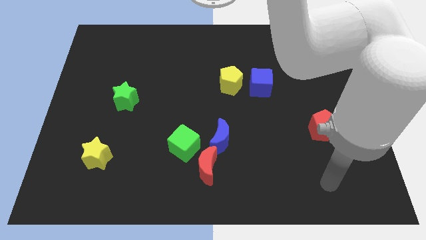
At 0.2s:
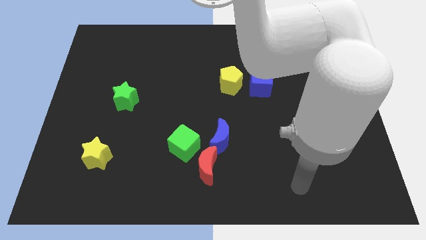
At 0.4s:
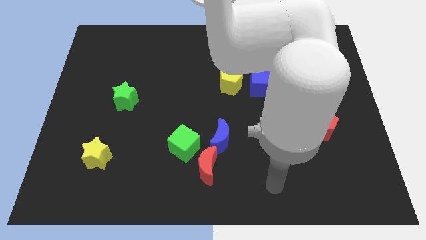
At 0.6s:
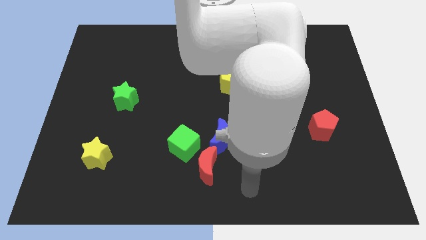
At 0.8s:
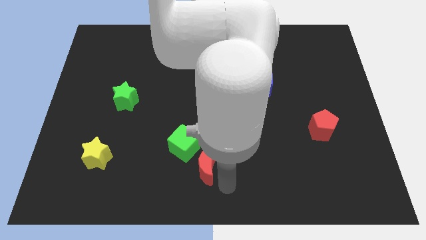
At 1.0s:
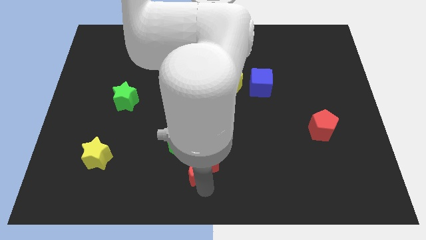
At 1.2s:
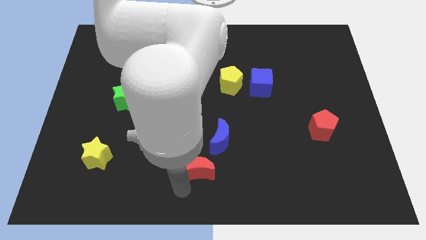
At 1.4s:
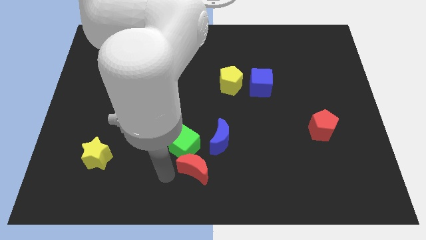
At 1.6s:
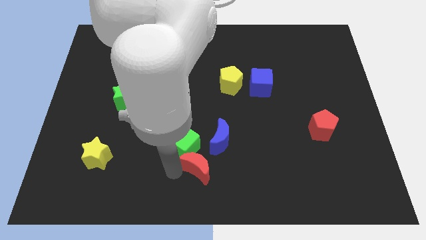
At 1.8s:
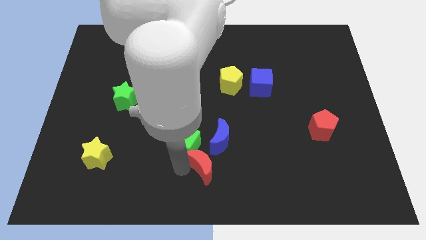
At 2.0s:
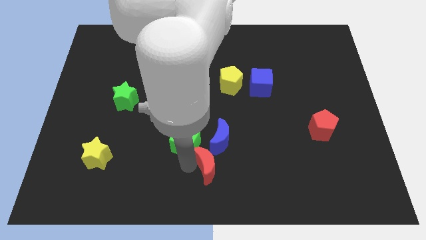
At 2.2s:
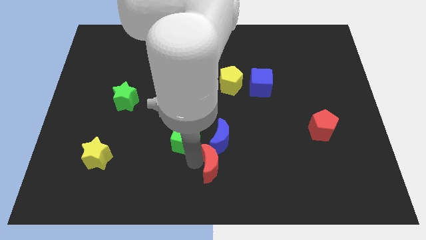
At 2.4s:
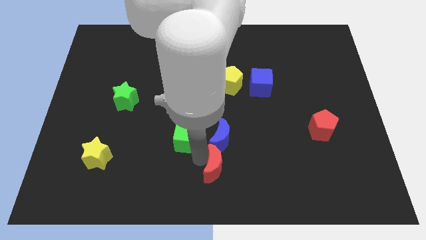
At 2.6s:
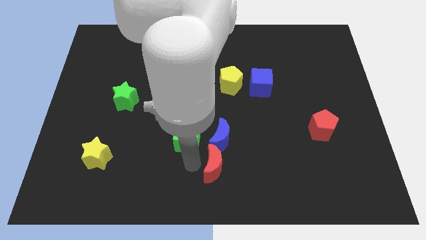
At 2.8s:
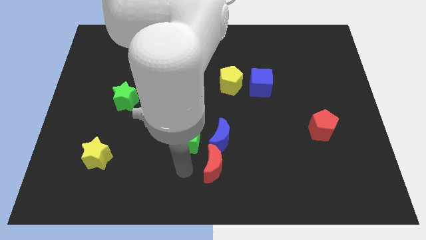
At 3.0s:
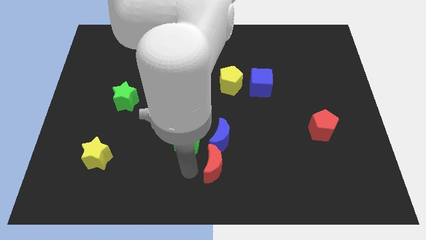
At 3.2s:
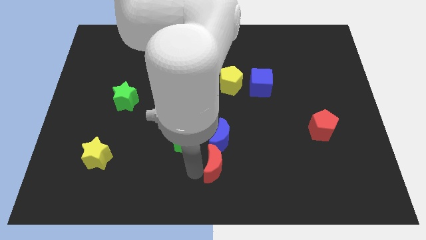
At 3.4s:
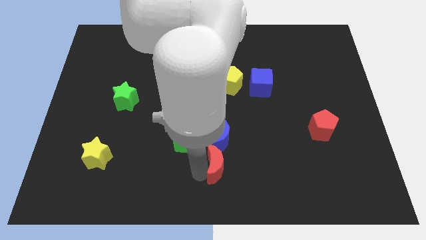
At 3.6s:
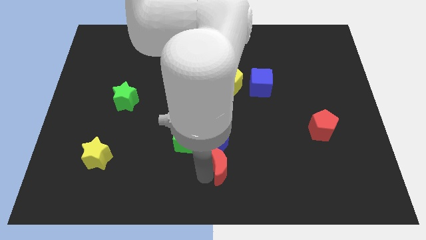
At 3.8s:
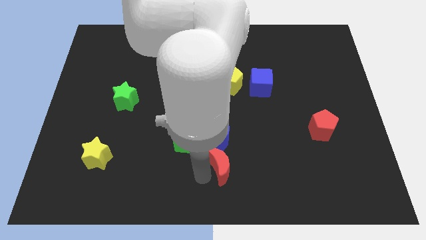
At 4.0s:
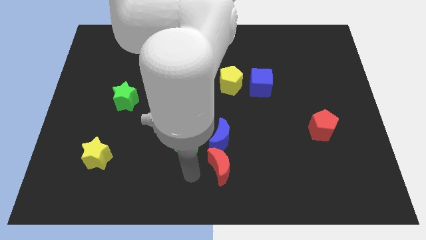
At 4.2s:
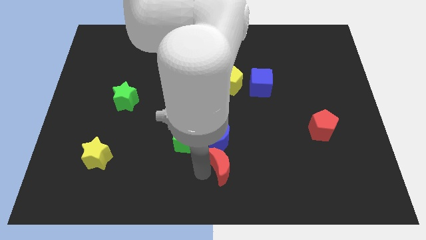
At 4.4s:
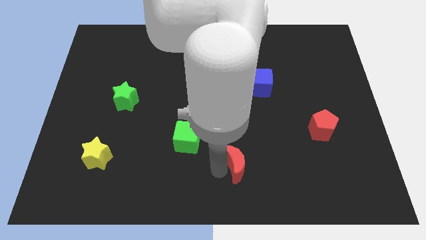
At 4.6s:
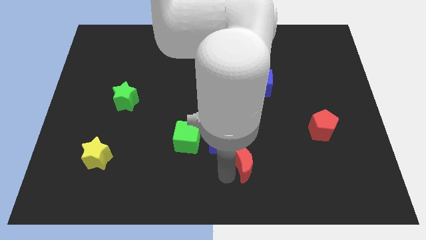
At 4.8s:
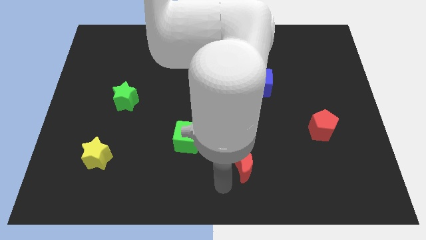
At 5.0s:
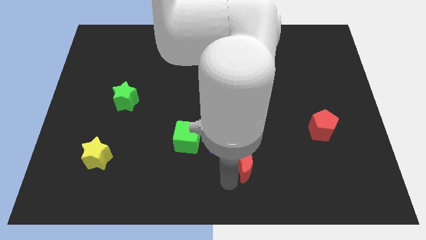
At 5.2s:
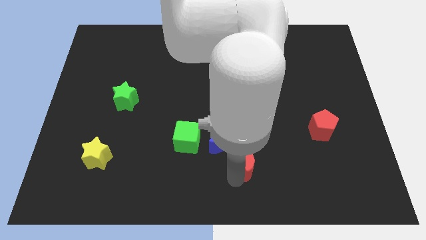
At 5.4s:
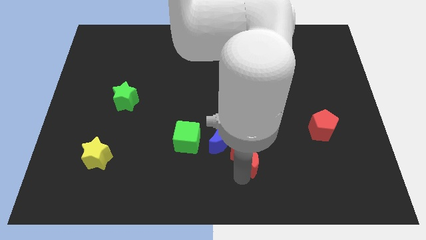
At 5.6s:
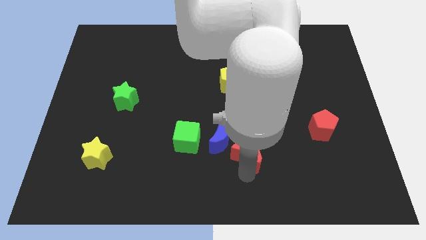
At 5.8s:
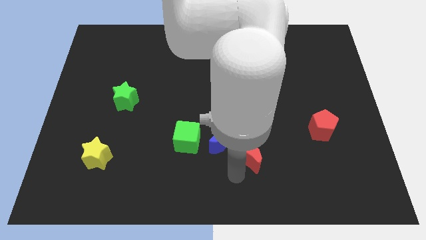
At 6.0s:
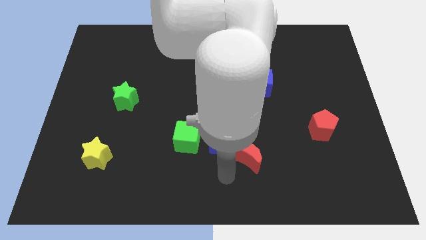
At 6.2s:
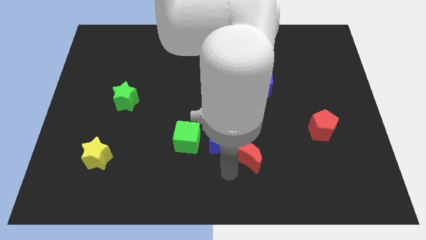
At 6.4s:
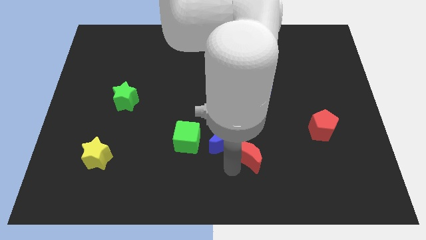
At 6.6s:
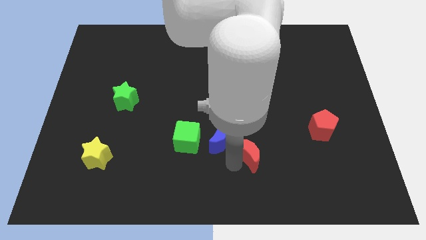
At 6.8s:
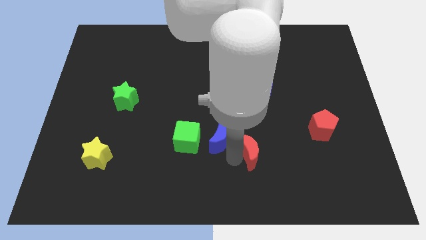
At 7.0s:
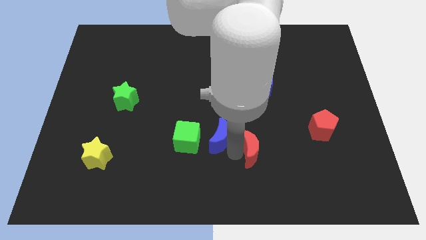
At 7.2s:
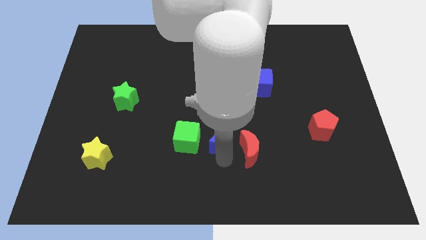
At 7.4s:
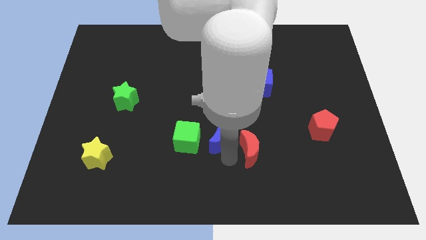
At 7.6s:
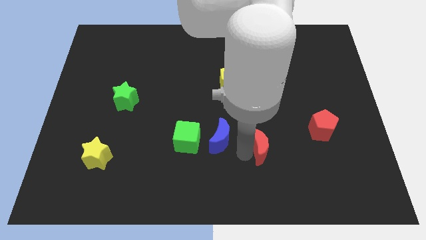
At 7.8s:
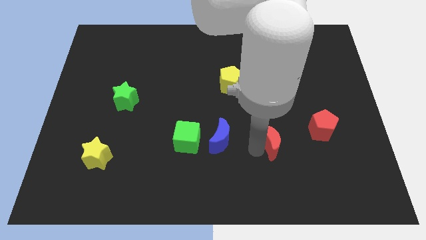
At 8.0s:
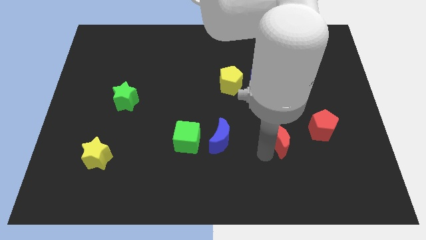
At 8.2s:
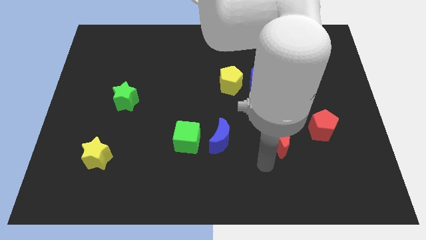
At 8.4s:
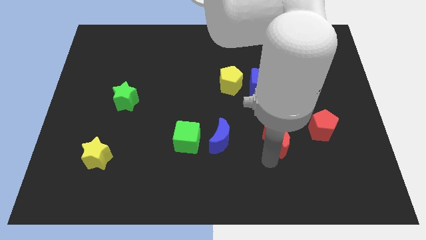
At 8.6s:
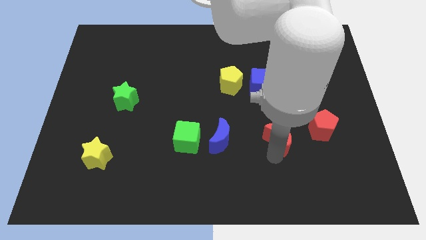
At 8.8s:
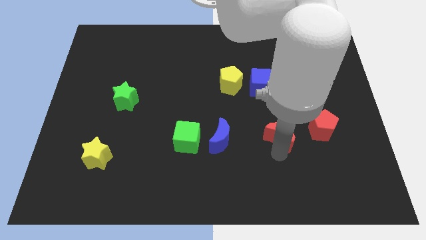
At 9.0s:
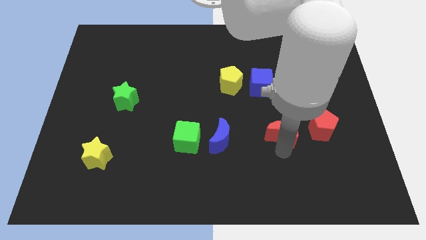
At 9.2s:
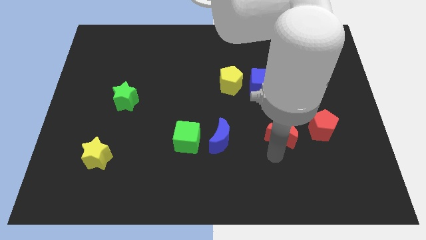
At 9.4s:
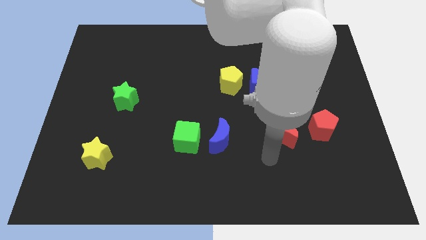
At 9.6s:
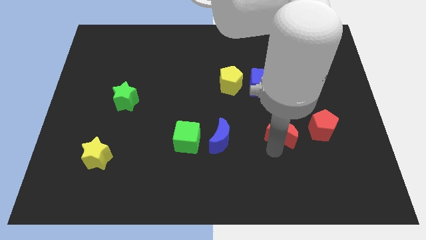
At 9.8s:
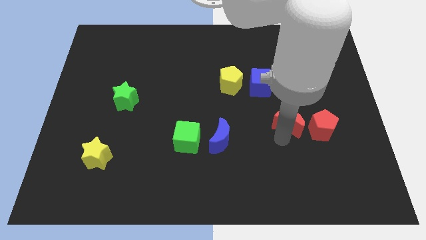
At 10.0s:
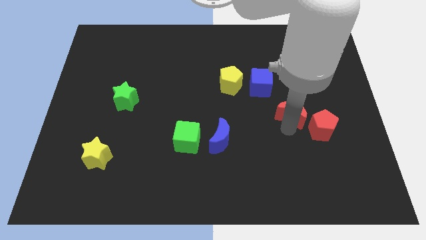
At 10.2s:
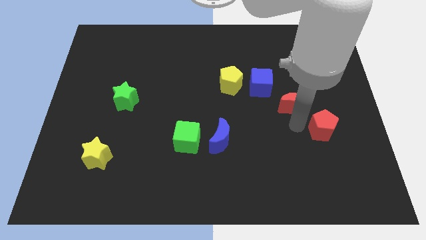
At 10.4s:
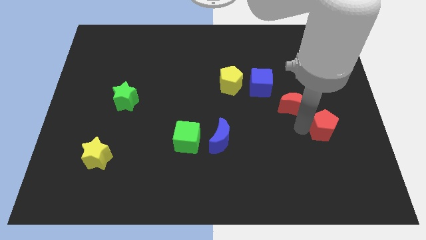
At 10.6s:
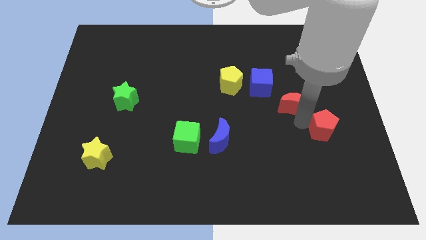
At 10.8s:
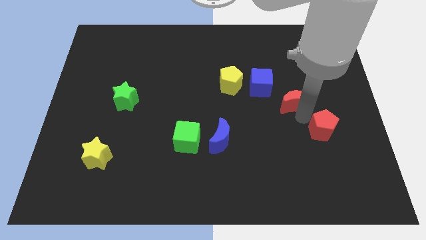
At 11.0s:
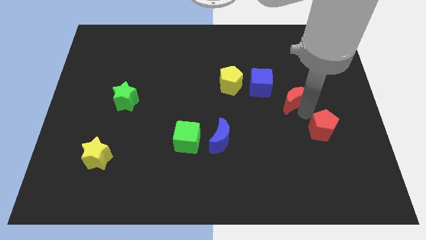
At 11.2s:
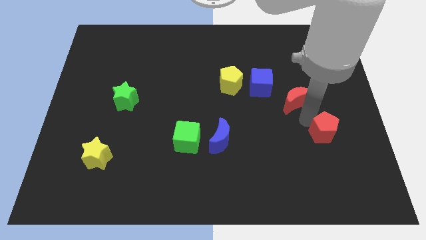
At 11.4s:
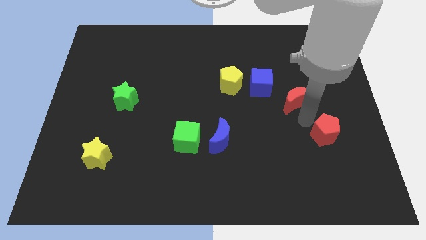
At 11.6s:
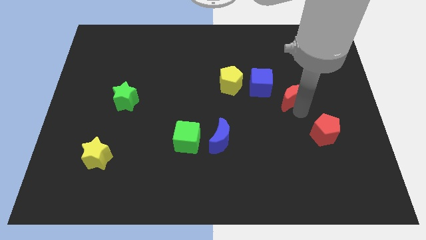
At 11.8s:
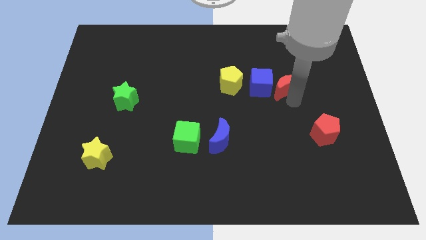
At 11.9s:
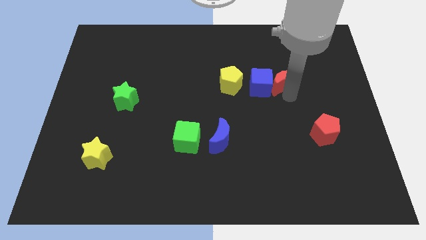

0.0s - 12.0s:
slide the red moon to the top right side of the blue cube

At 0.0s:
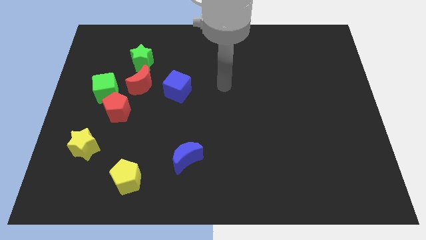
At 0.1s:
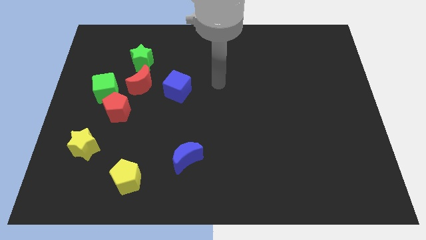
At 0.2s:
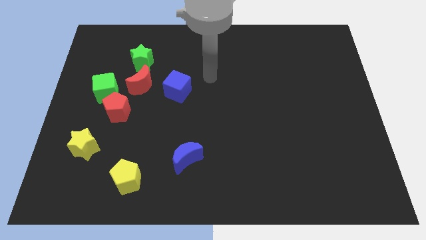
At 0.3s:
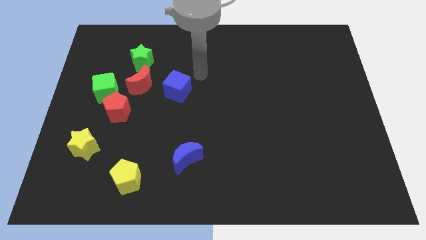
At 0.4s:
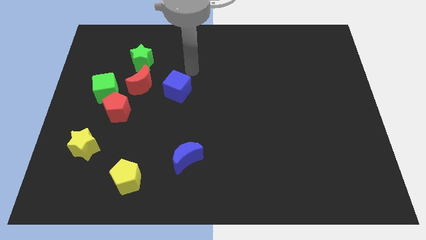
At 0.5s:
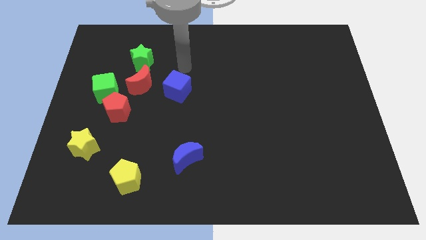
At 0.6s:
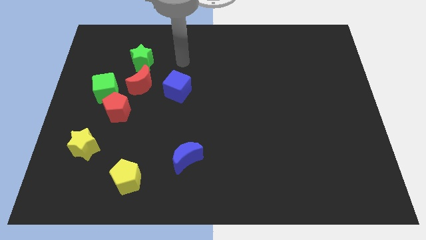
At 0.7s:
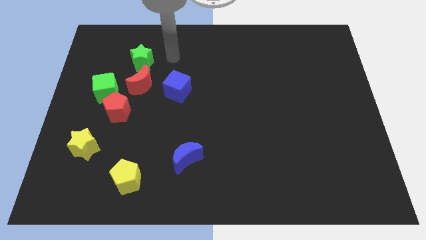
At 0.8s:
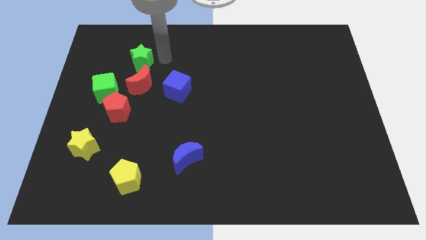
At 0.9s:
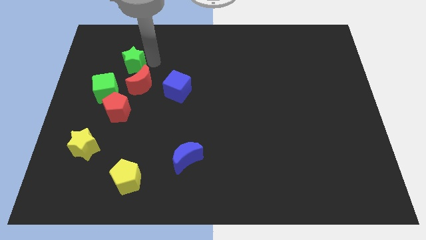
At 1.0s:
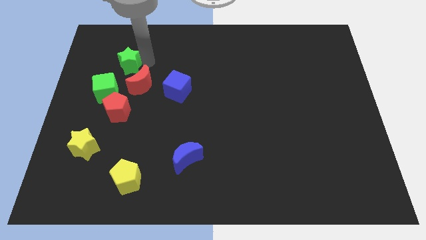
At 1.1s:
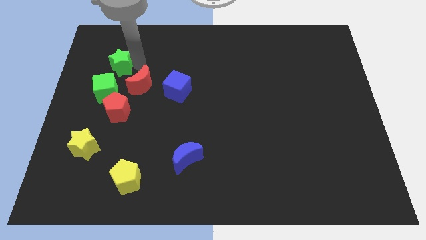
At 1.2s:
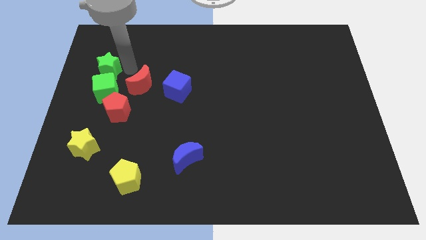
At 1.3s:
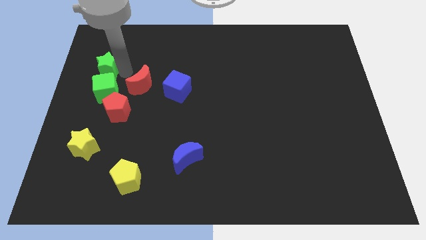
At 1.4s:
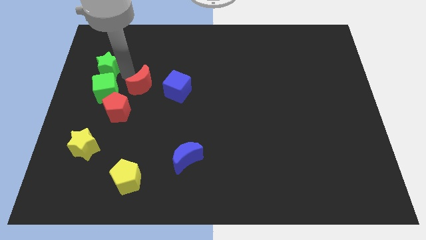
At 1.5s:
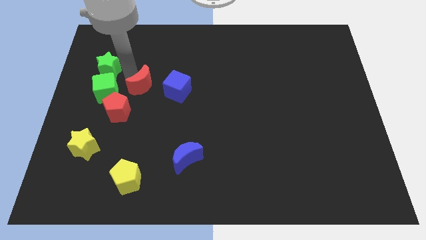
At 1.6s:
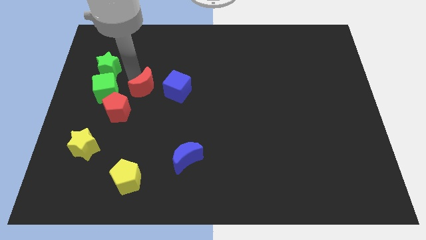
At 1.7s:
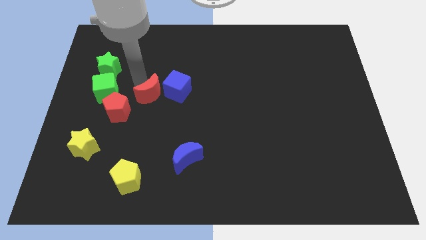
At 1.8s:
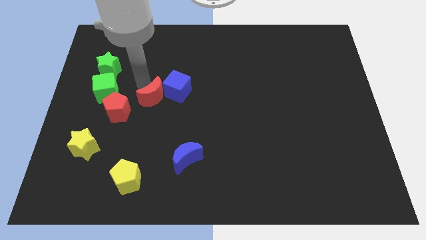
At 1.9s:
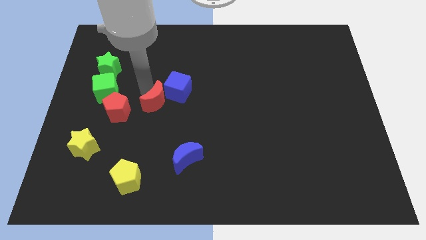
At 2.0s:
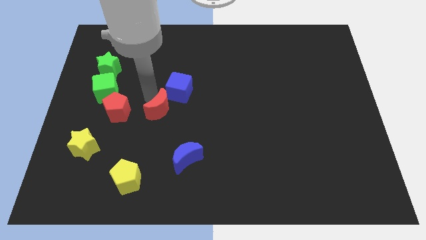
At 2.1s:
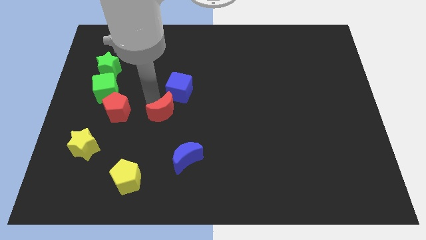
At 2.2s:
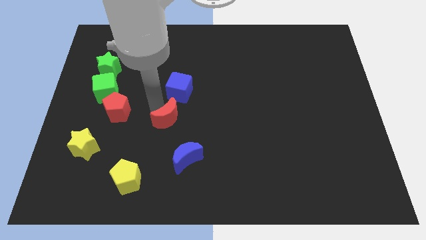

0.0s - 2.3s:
slide the red moon to the top of the blue moon
